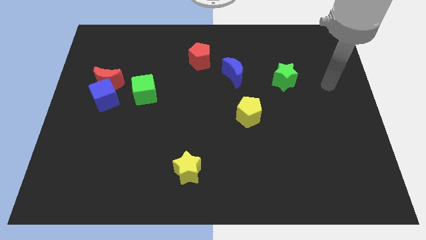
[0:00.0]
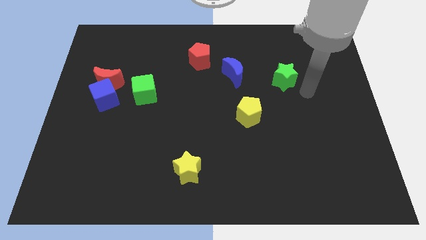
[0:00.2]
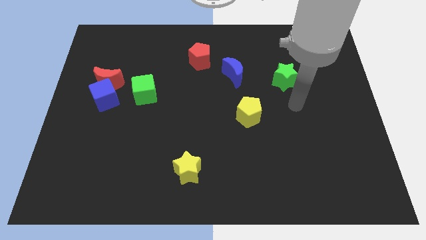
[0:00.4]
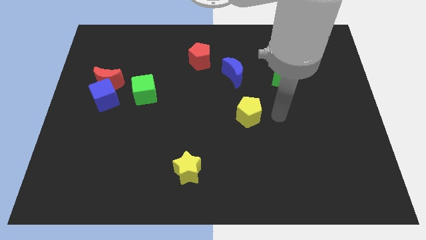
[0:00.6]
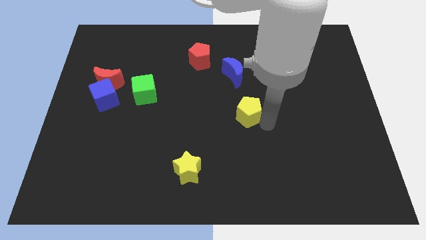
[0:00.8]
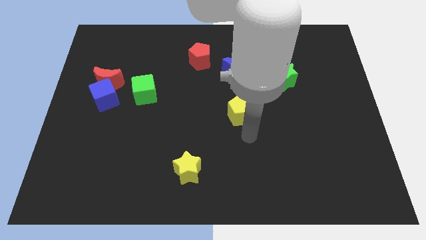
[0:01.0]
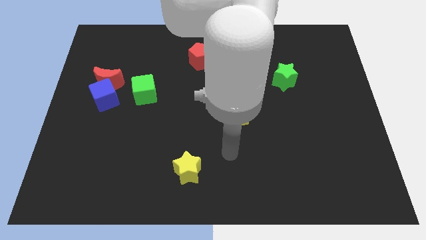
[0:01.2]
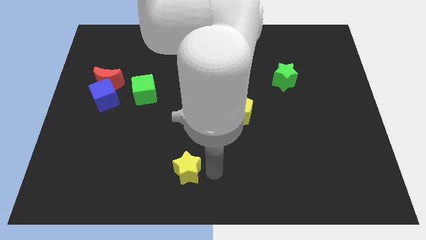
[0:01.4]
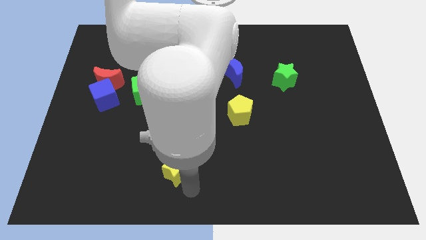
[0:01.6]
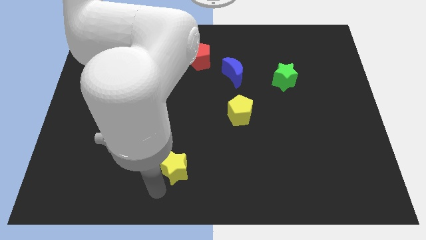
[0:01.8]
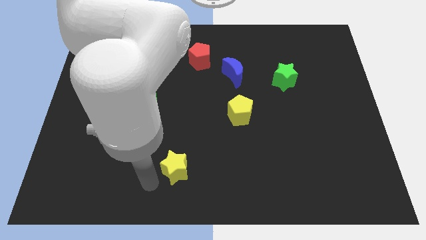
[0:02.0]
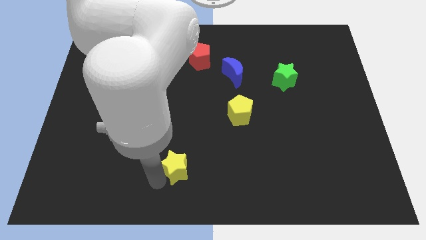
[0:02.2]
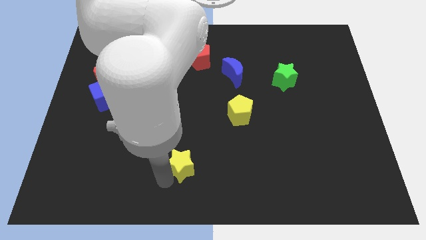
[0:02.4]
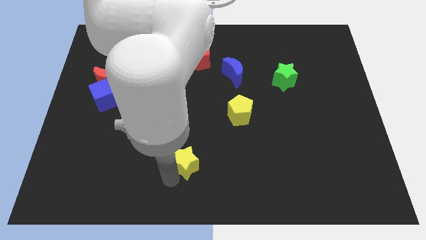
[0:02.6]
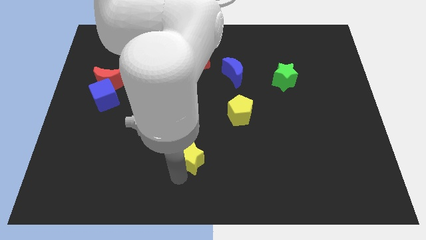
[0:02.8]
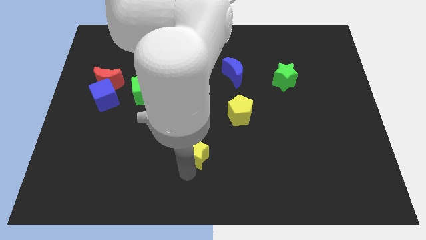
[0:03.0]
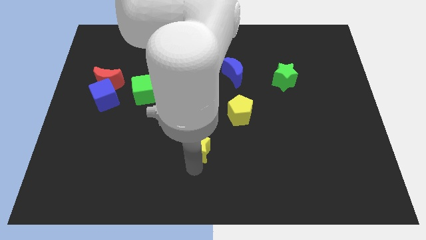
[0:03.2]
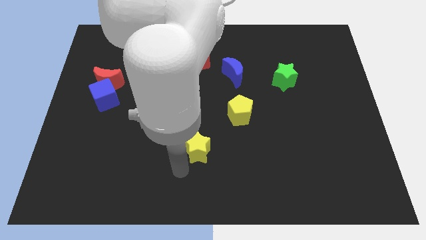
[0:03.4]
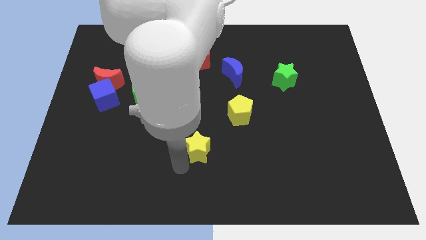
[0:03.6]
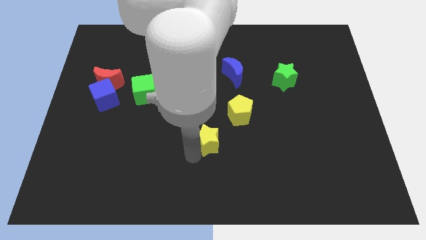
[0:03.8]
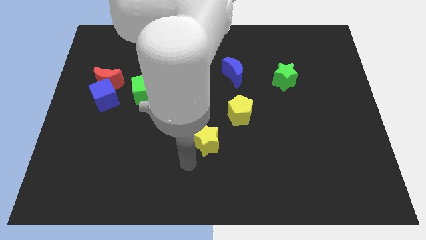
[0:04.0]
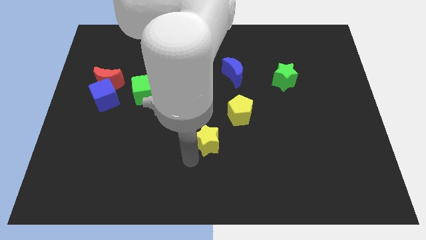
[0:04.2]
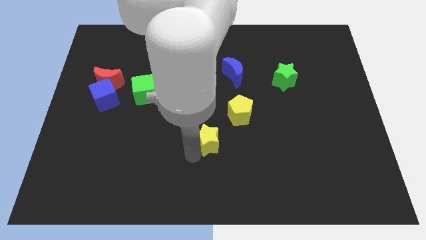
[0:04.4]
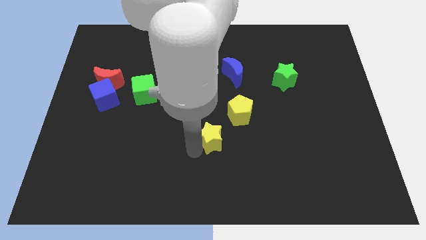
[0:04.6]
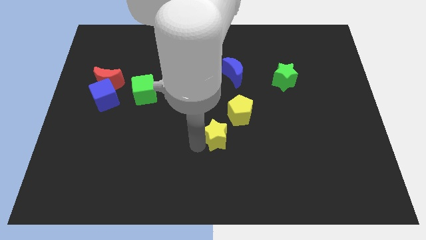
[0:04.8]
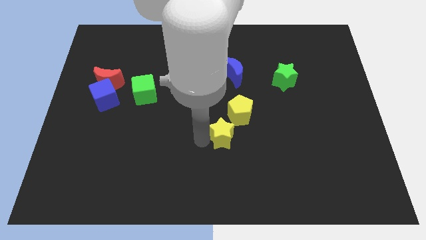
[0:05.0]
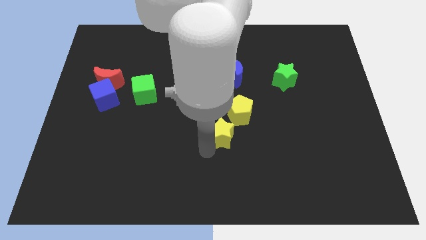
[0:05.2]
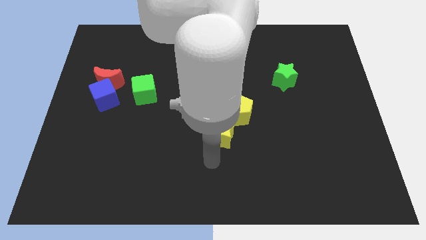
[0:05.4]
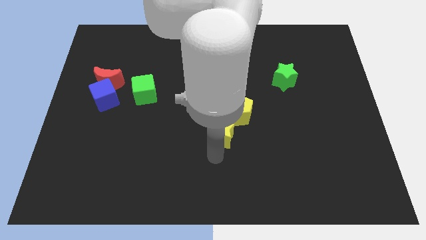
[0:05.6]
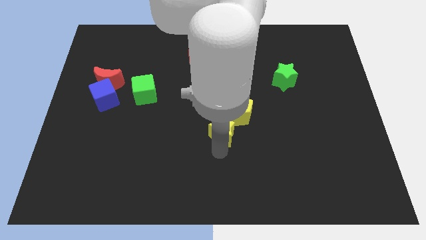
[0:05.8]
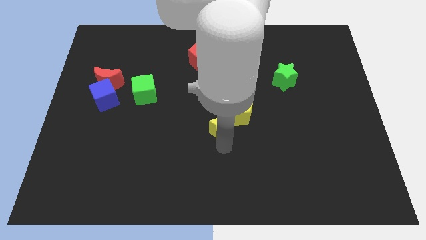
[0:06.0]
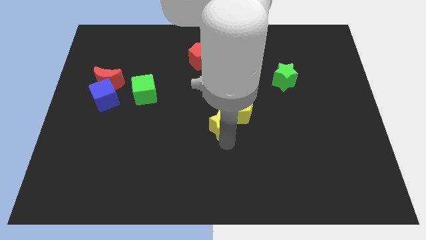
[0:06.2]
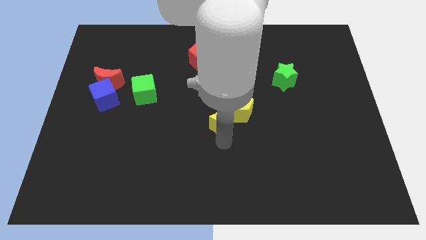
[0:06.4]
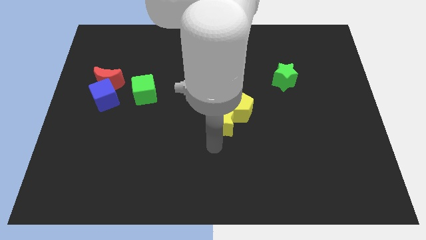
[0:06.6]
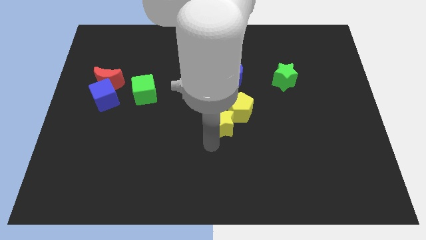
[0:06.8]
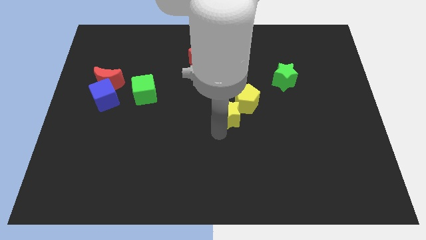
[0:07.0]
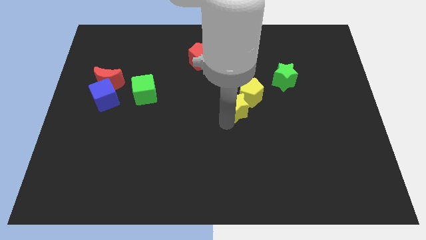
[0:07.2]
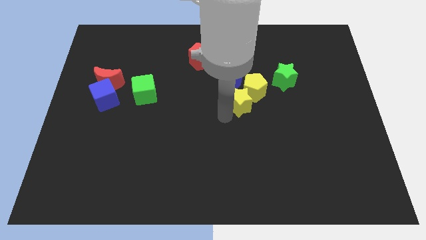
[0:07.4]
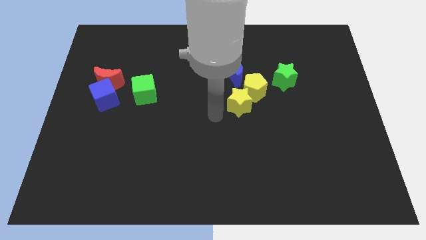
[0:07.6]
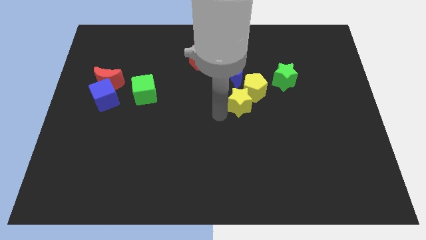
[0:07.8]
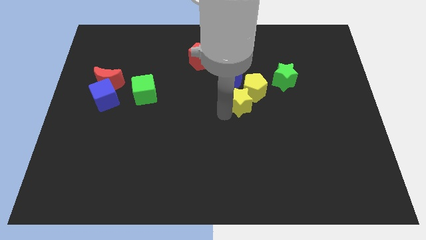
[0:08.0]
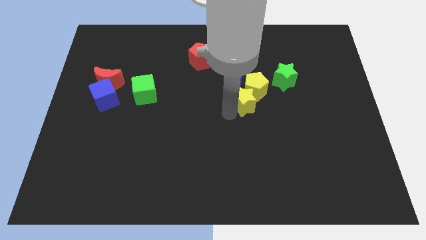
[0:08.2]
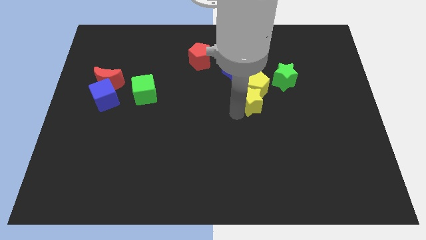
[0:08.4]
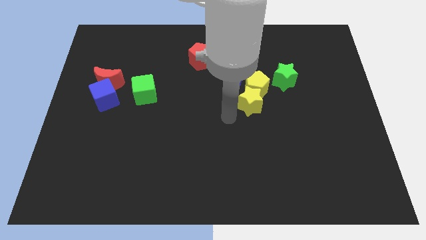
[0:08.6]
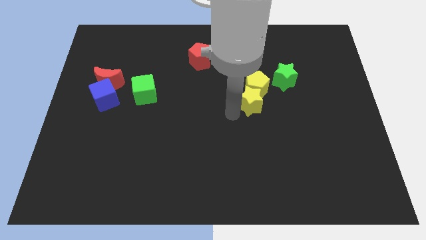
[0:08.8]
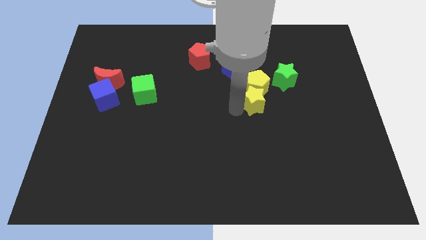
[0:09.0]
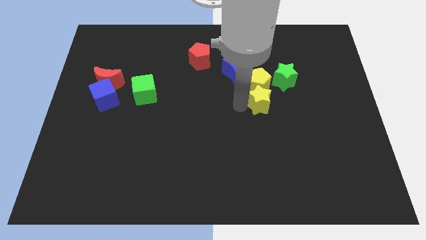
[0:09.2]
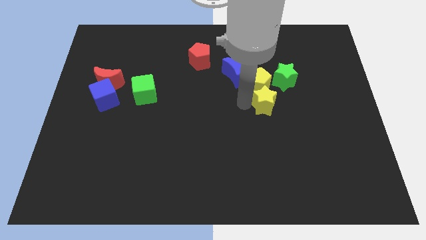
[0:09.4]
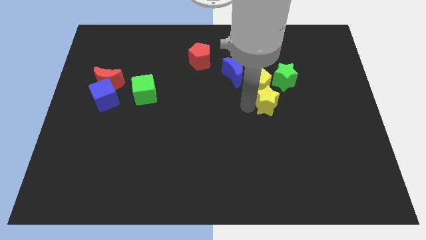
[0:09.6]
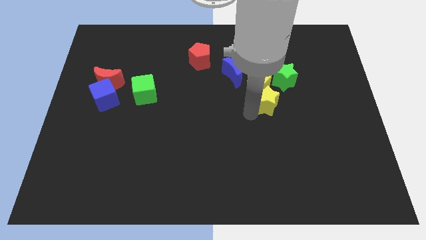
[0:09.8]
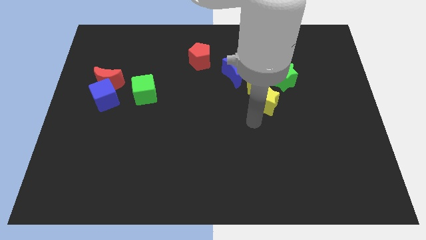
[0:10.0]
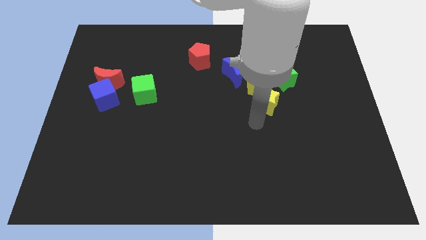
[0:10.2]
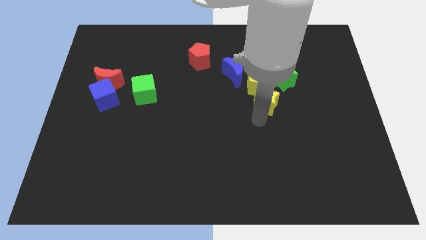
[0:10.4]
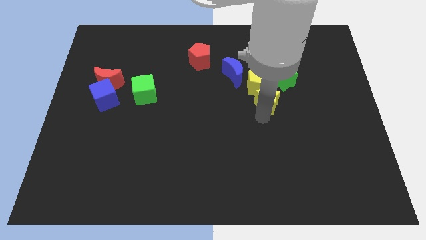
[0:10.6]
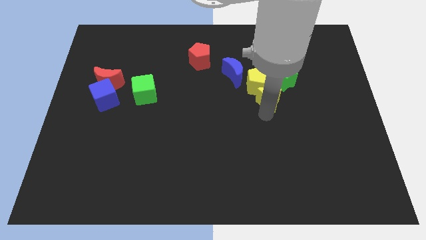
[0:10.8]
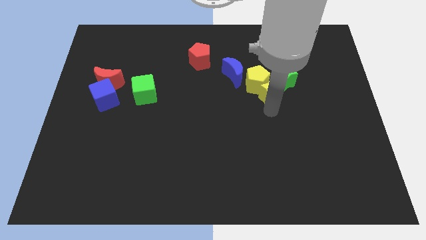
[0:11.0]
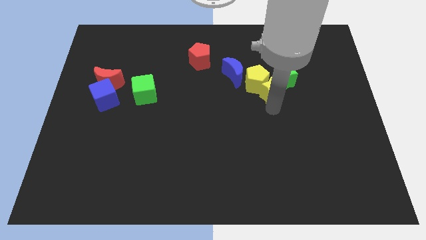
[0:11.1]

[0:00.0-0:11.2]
put the yellow star next to the green star

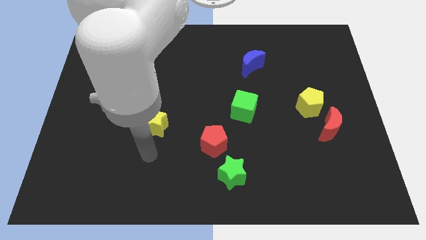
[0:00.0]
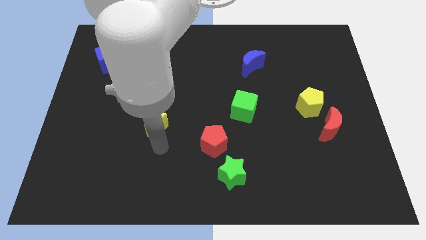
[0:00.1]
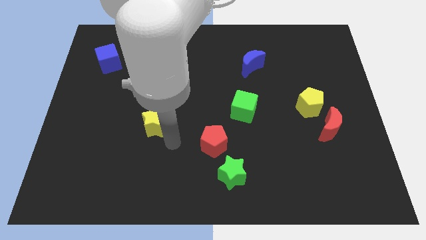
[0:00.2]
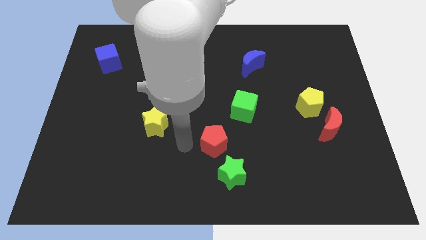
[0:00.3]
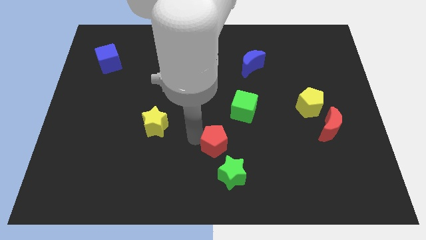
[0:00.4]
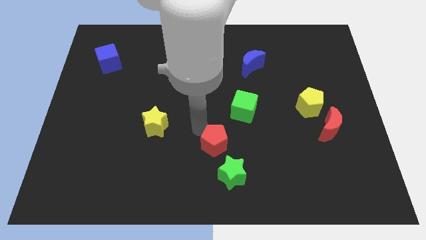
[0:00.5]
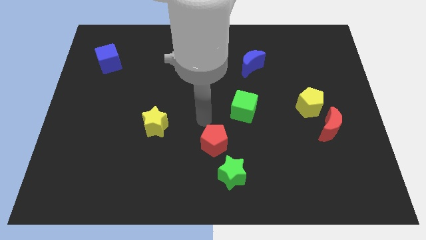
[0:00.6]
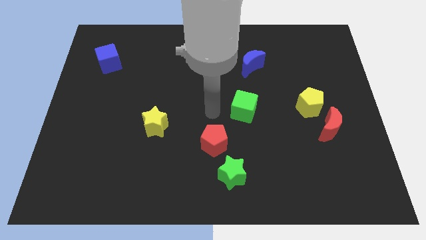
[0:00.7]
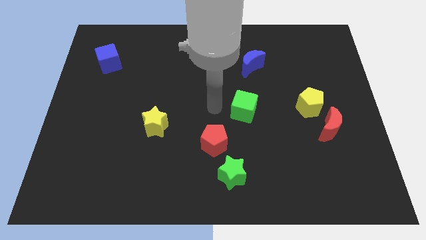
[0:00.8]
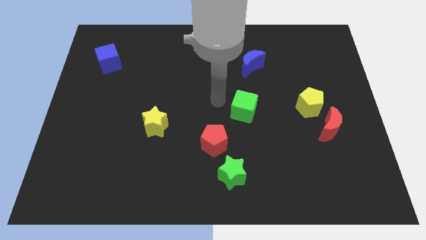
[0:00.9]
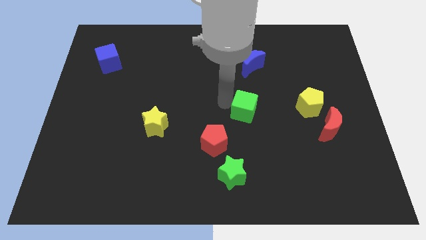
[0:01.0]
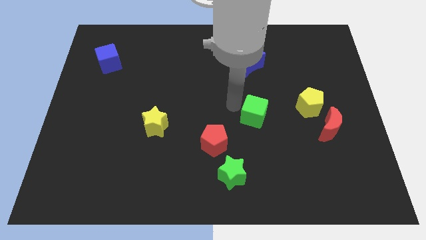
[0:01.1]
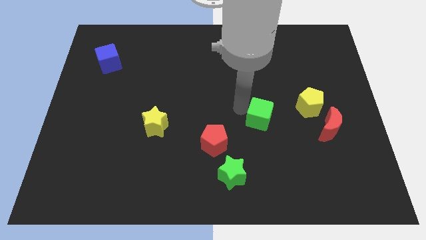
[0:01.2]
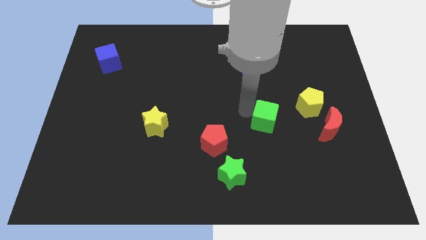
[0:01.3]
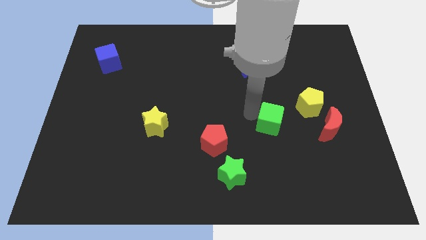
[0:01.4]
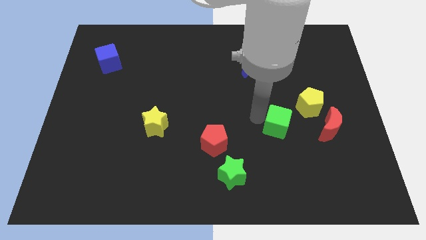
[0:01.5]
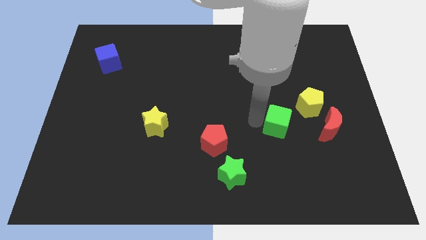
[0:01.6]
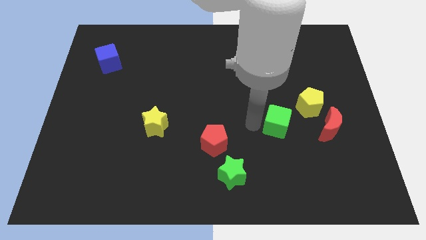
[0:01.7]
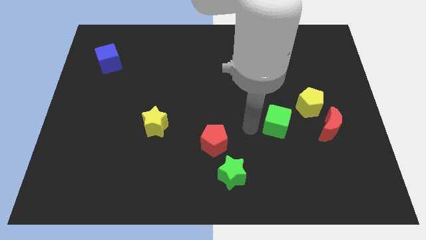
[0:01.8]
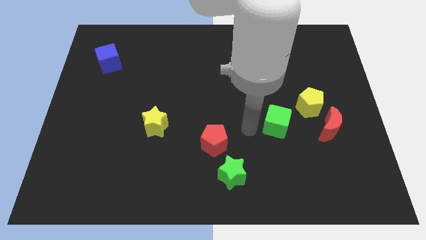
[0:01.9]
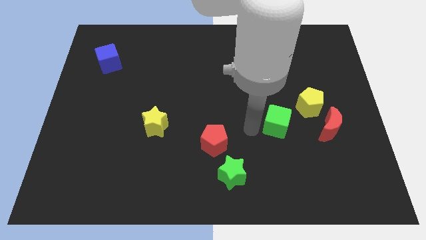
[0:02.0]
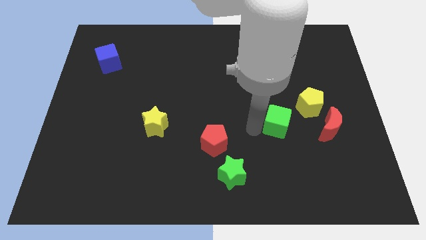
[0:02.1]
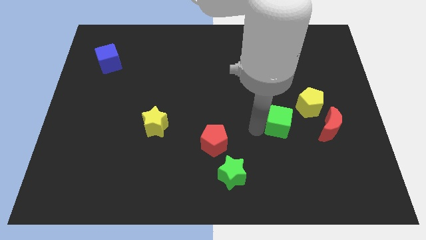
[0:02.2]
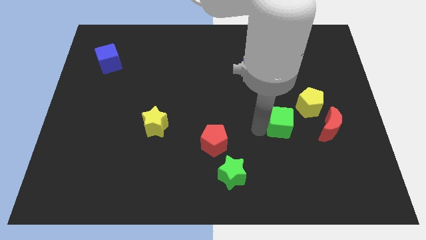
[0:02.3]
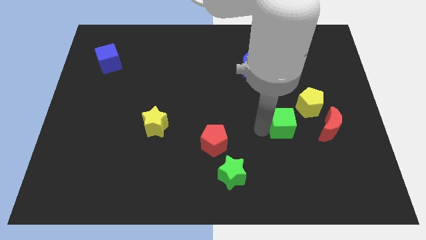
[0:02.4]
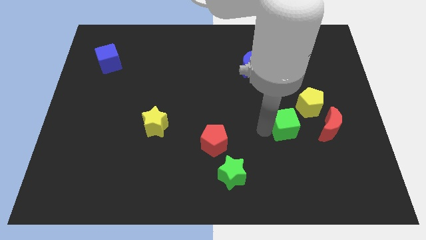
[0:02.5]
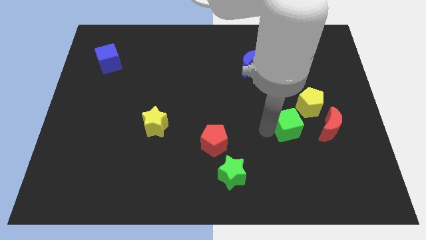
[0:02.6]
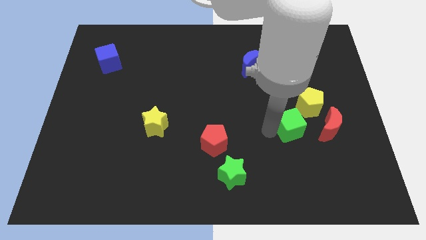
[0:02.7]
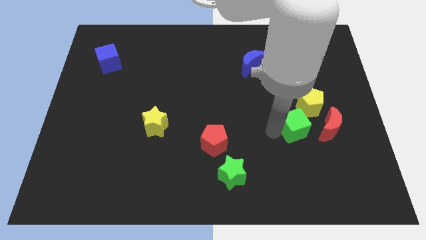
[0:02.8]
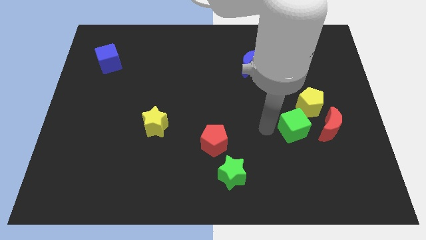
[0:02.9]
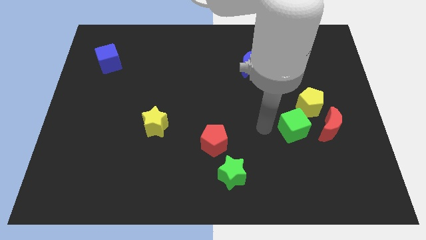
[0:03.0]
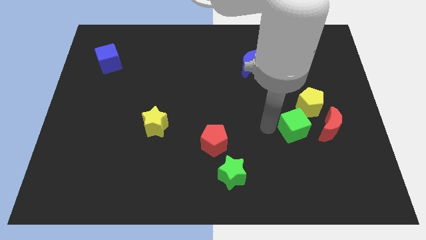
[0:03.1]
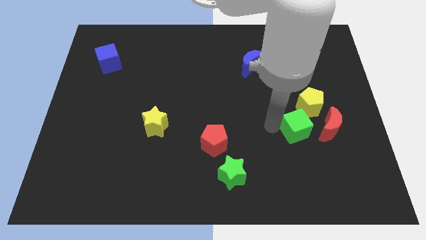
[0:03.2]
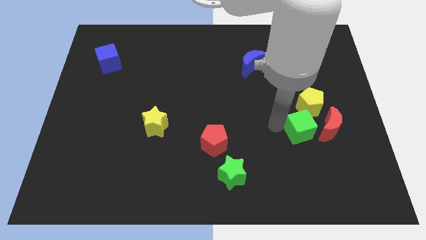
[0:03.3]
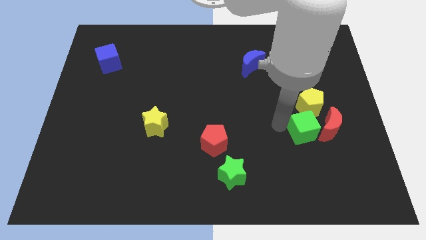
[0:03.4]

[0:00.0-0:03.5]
push the green cube close to the red moon
